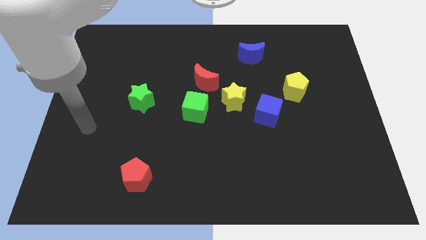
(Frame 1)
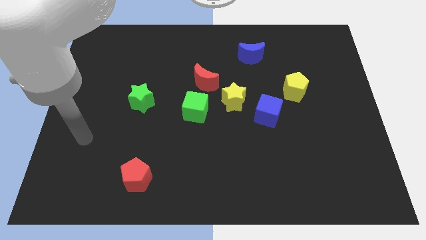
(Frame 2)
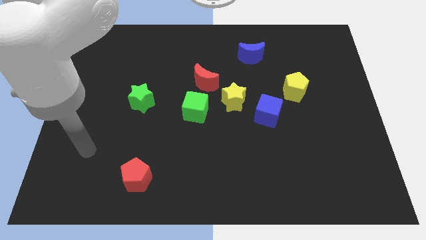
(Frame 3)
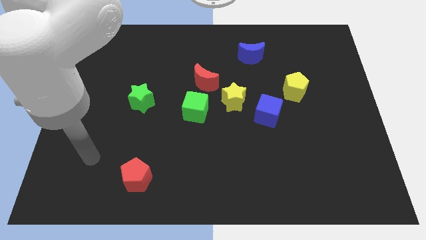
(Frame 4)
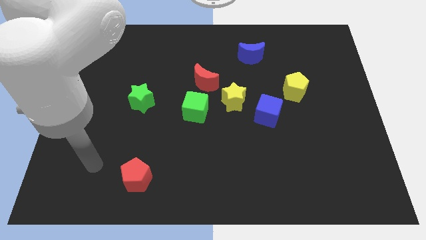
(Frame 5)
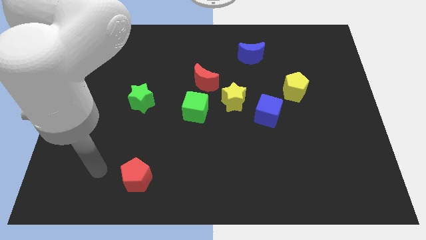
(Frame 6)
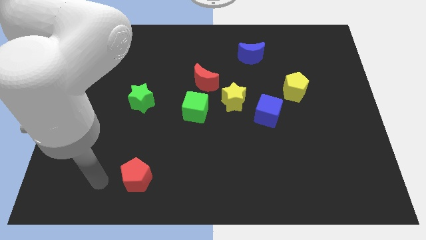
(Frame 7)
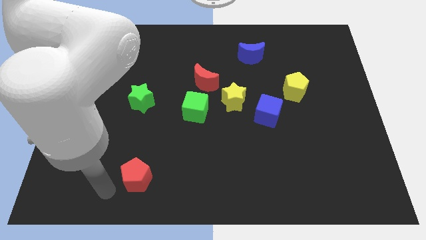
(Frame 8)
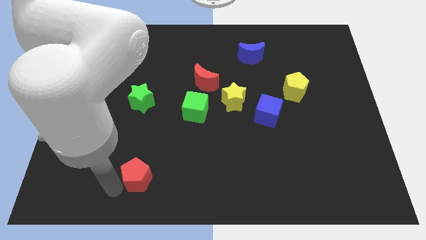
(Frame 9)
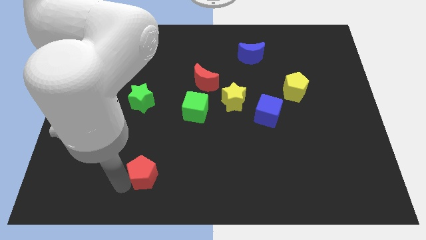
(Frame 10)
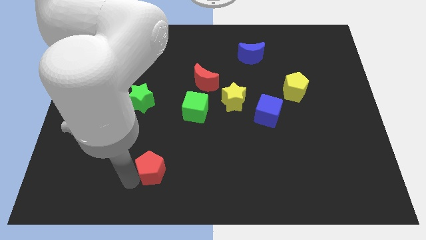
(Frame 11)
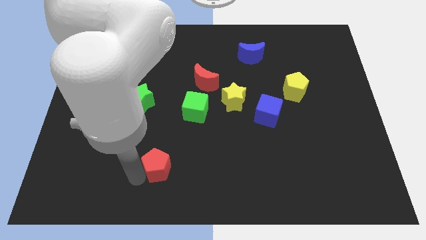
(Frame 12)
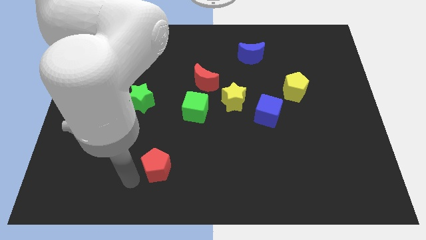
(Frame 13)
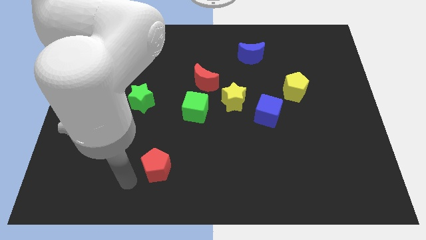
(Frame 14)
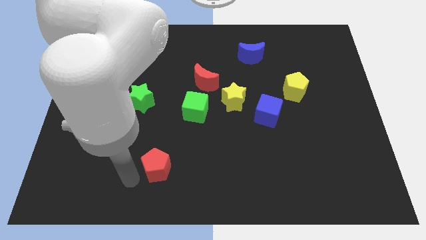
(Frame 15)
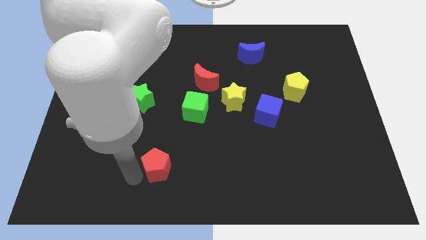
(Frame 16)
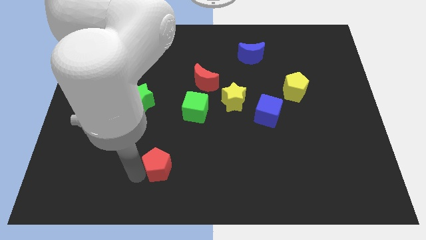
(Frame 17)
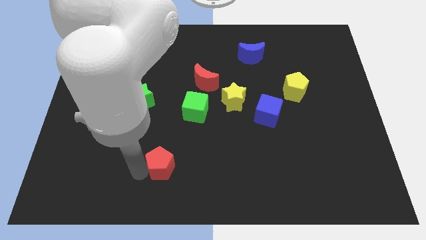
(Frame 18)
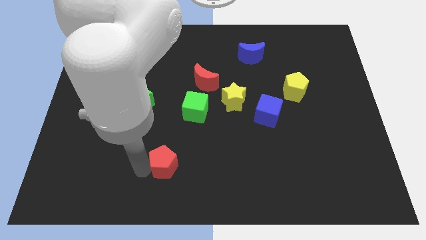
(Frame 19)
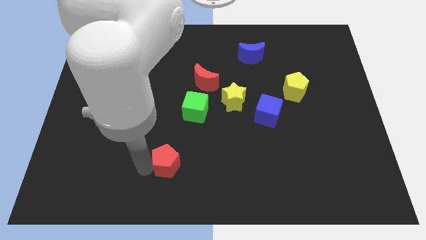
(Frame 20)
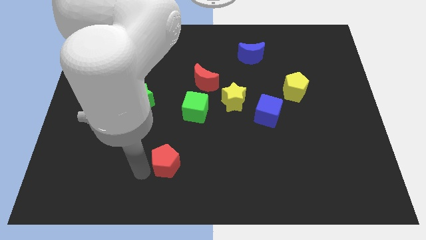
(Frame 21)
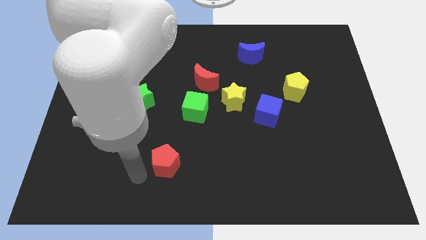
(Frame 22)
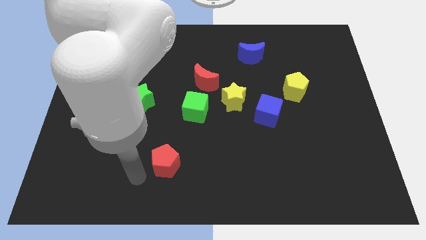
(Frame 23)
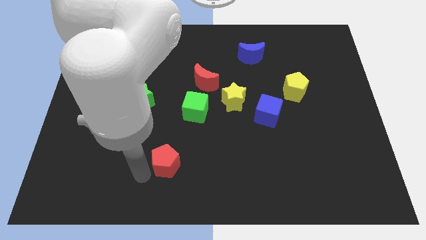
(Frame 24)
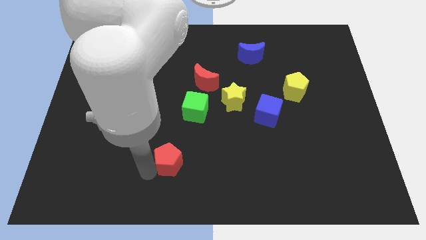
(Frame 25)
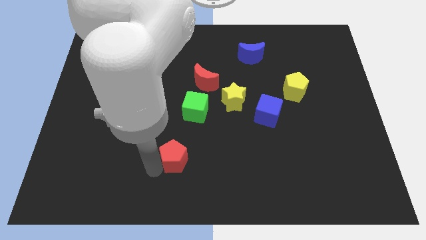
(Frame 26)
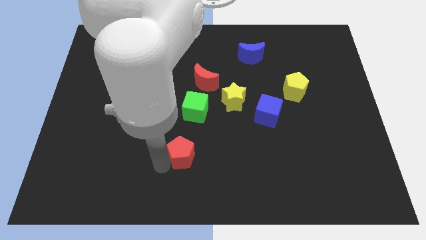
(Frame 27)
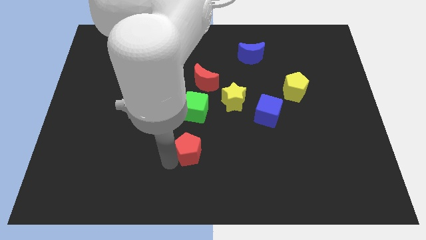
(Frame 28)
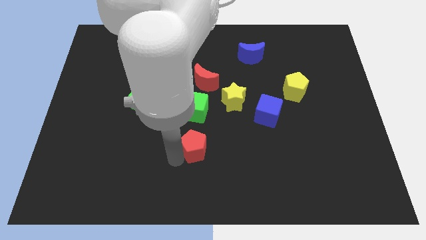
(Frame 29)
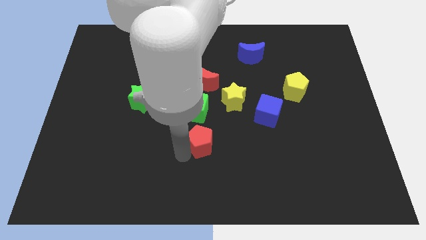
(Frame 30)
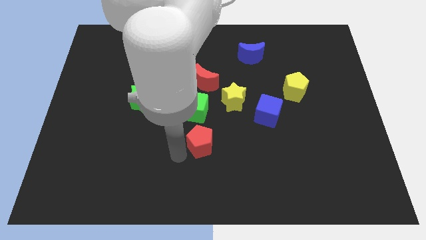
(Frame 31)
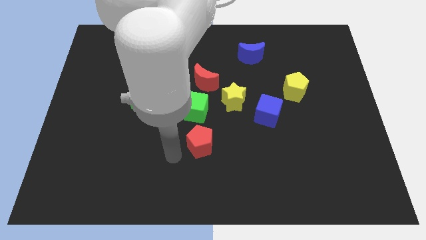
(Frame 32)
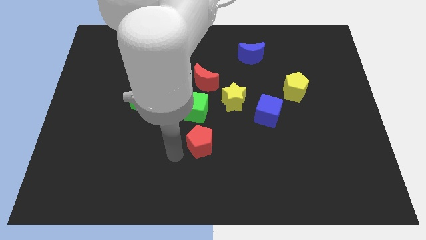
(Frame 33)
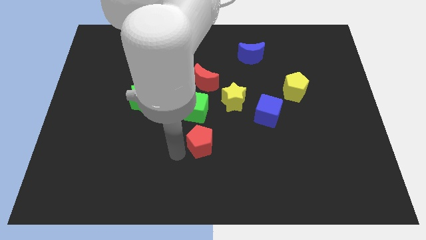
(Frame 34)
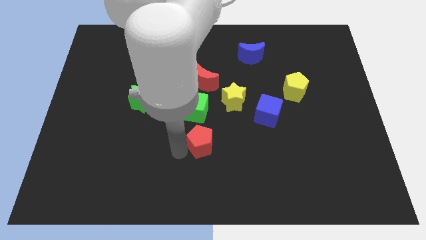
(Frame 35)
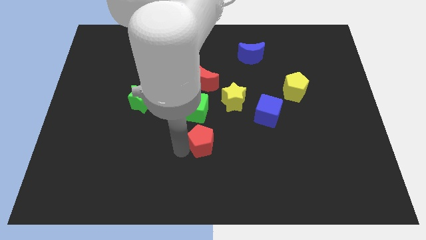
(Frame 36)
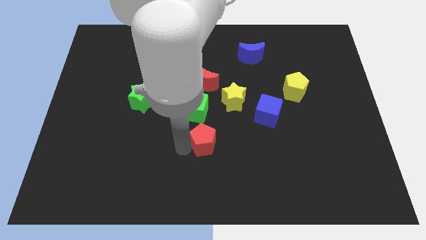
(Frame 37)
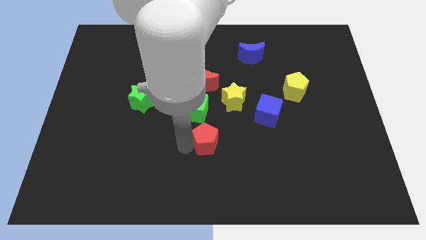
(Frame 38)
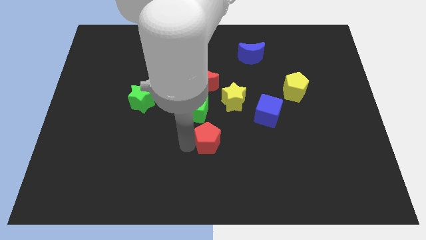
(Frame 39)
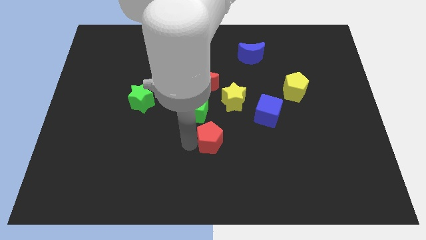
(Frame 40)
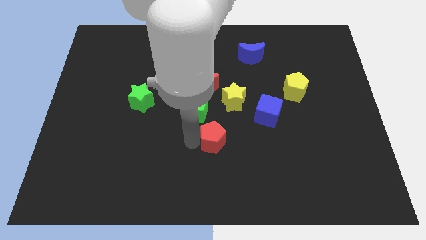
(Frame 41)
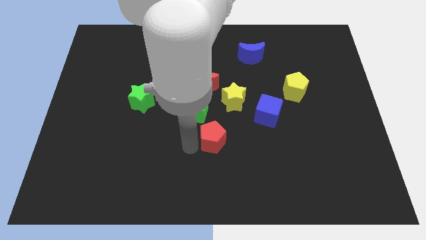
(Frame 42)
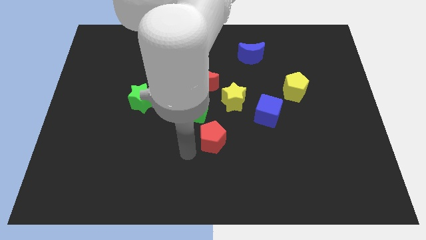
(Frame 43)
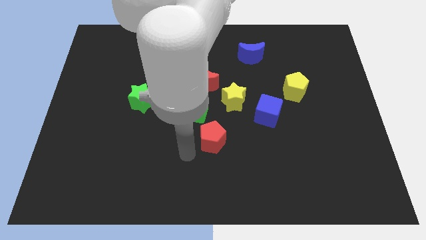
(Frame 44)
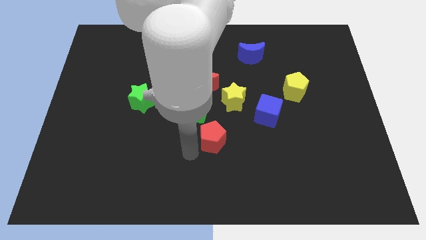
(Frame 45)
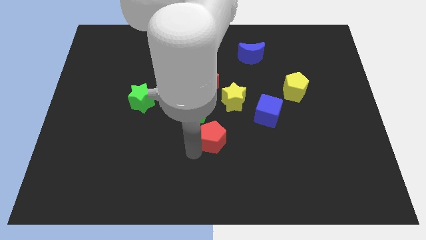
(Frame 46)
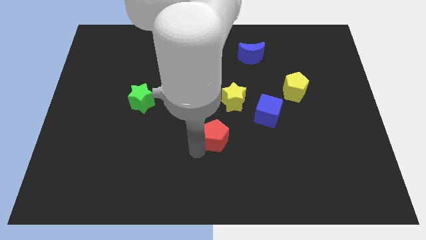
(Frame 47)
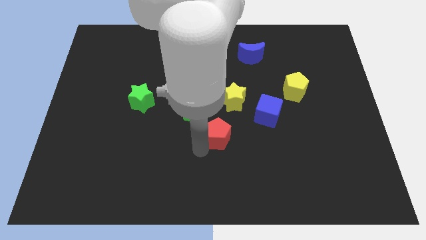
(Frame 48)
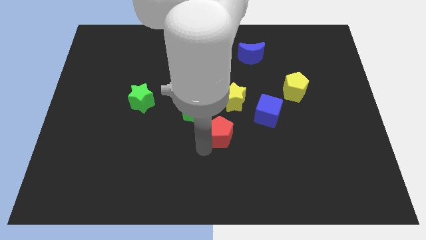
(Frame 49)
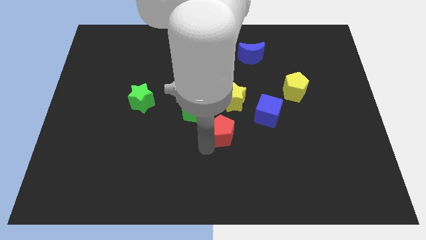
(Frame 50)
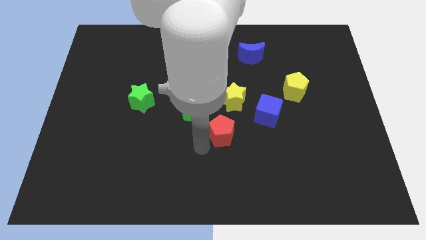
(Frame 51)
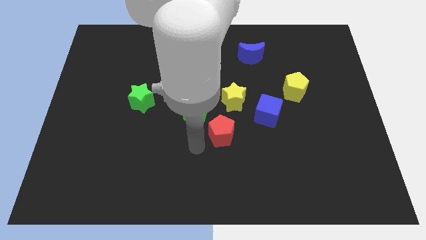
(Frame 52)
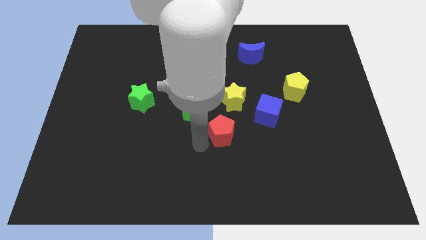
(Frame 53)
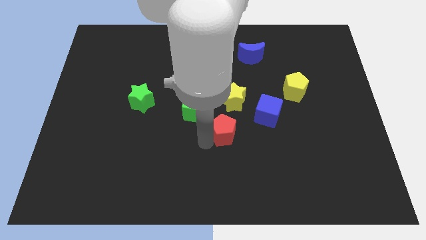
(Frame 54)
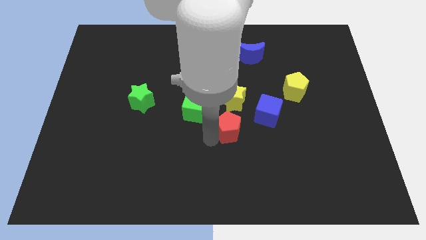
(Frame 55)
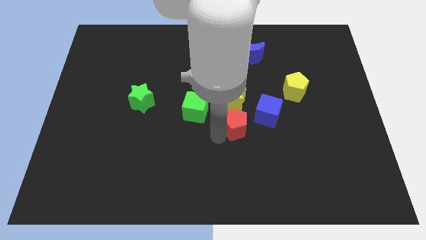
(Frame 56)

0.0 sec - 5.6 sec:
slide the red pentagon to the right of the green cube
